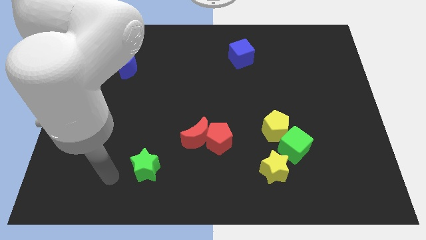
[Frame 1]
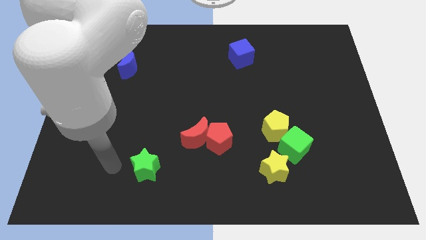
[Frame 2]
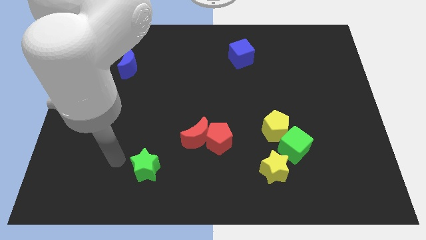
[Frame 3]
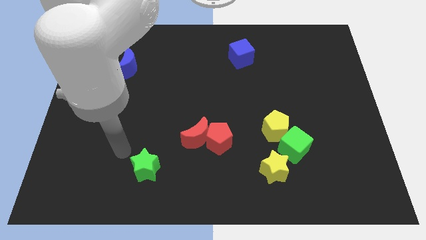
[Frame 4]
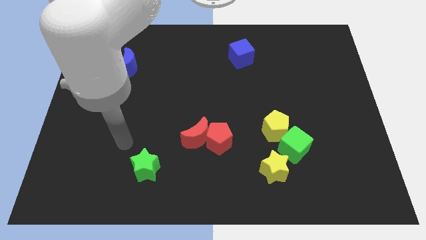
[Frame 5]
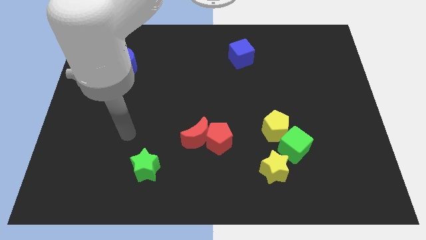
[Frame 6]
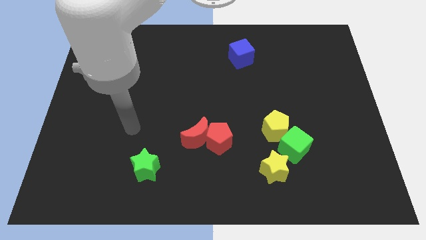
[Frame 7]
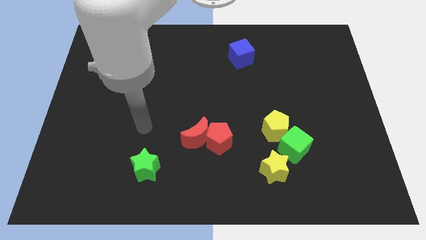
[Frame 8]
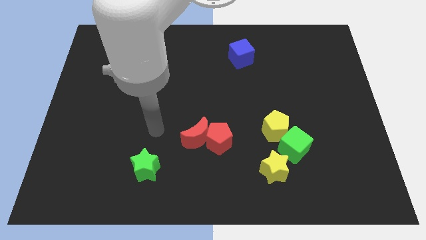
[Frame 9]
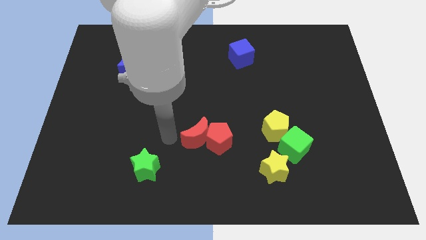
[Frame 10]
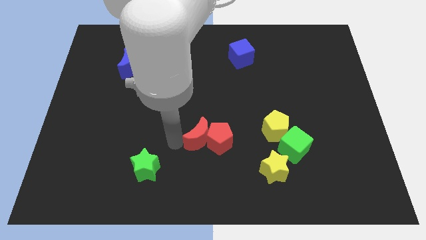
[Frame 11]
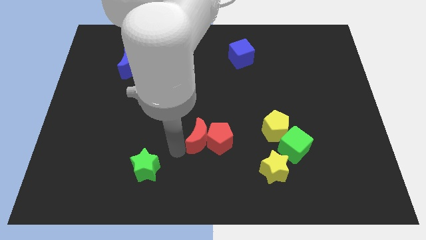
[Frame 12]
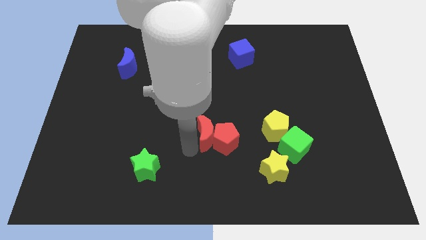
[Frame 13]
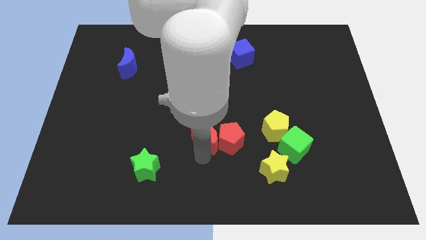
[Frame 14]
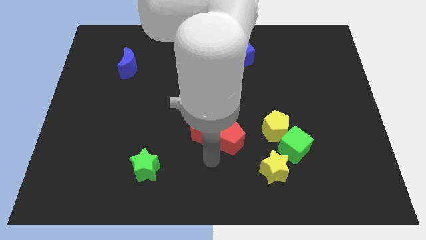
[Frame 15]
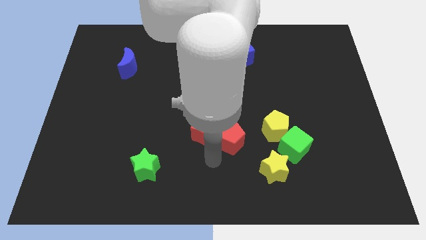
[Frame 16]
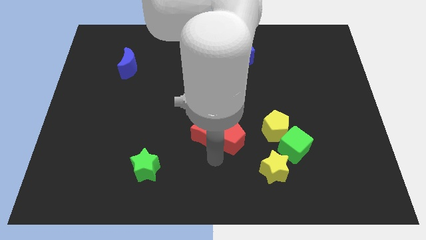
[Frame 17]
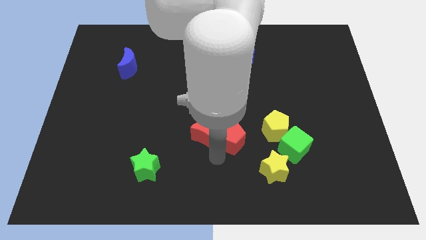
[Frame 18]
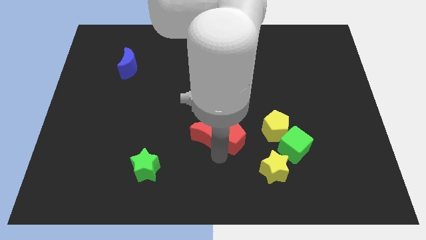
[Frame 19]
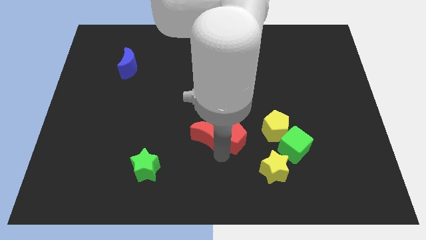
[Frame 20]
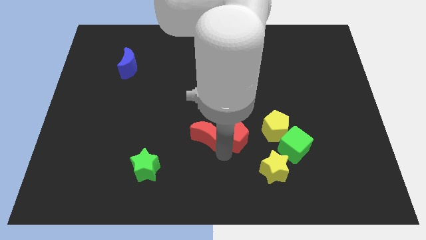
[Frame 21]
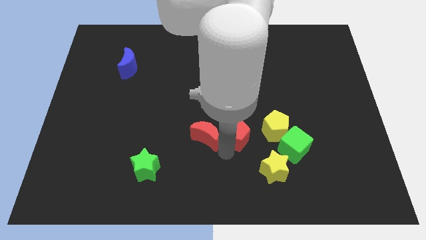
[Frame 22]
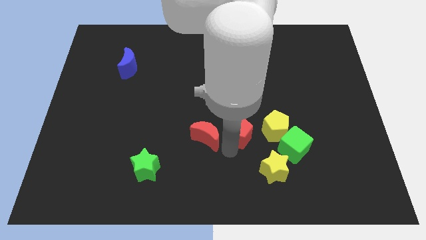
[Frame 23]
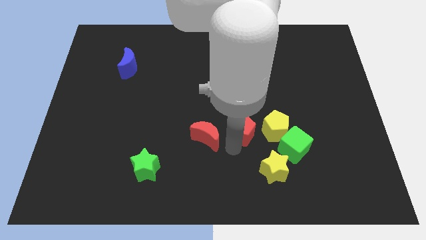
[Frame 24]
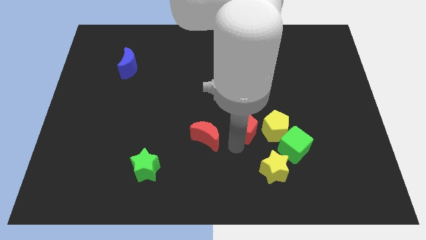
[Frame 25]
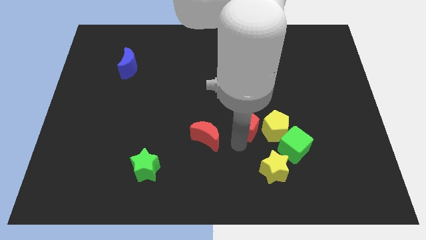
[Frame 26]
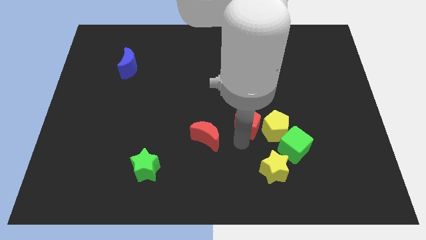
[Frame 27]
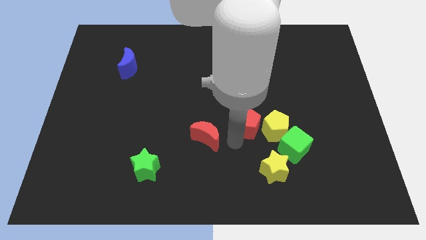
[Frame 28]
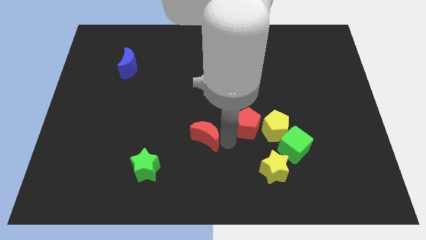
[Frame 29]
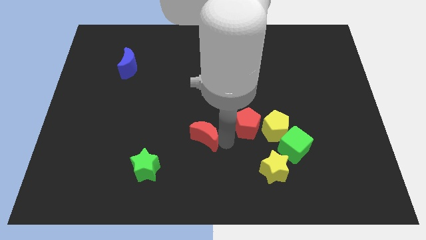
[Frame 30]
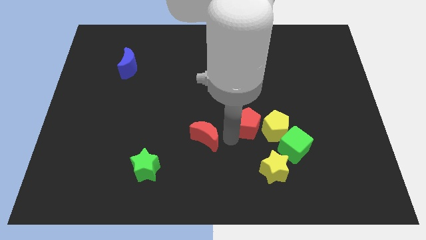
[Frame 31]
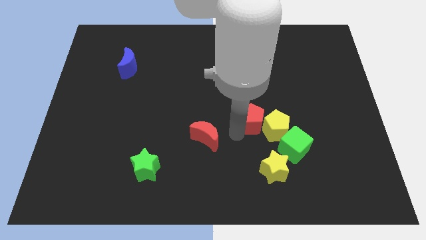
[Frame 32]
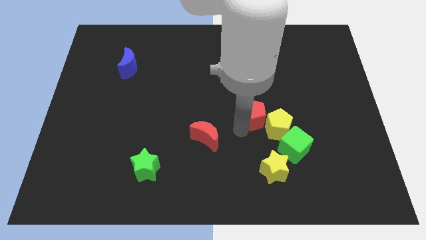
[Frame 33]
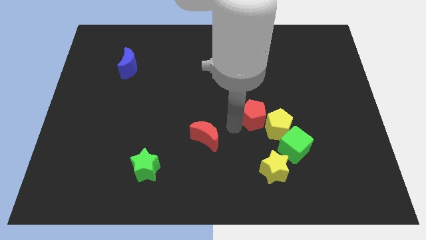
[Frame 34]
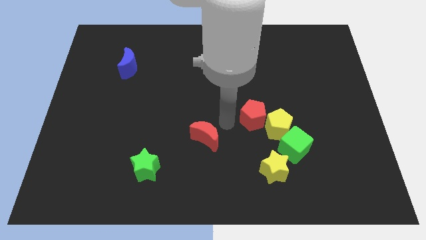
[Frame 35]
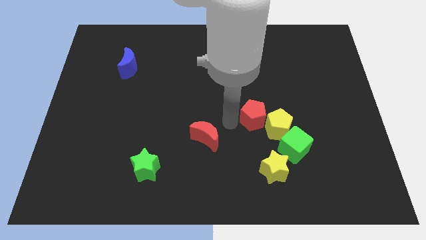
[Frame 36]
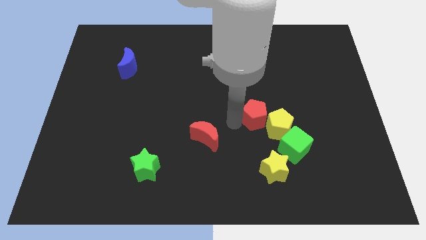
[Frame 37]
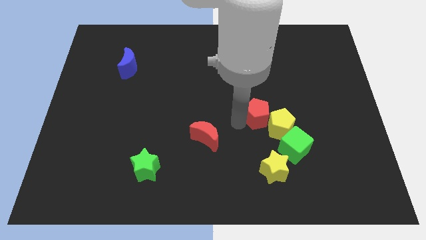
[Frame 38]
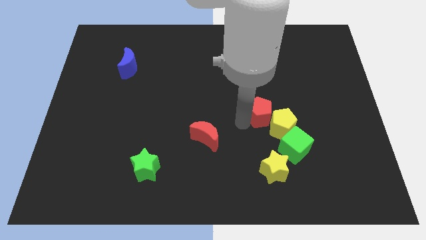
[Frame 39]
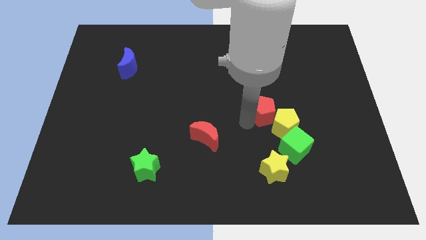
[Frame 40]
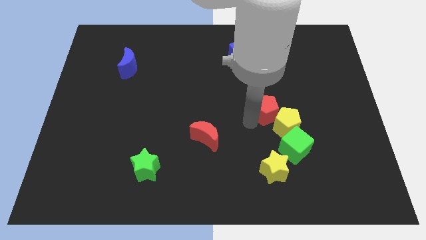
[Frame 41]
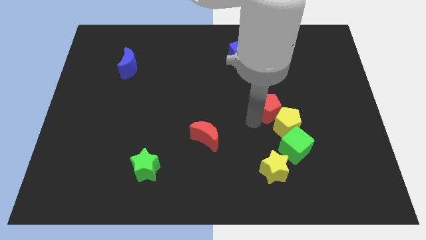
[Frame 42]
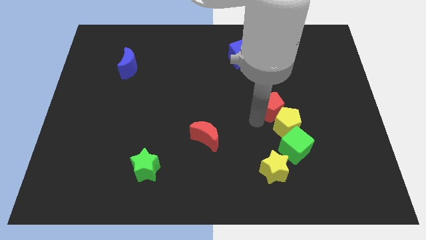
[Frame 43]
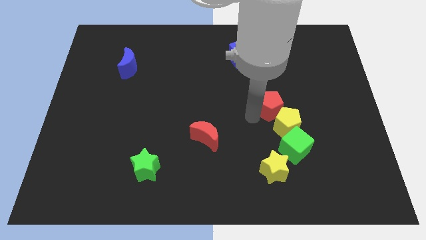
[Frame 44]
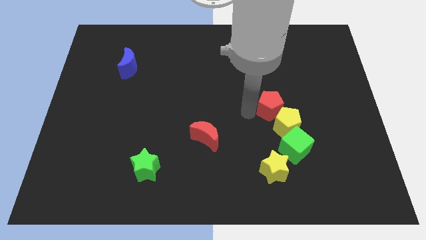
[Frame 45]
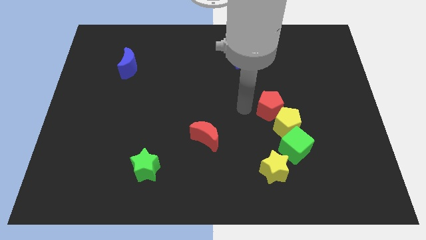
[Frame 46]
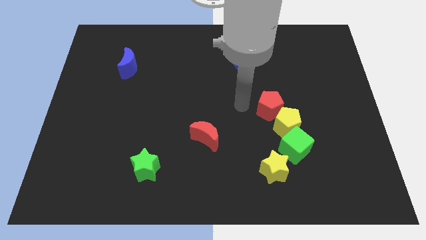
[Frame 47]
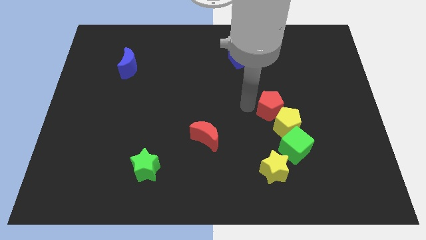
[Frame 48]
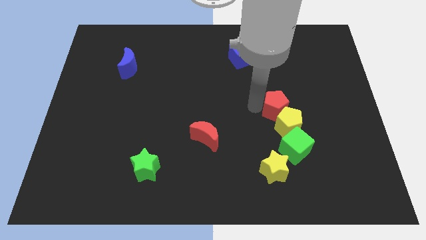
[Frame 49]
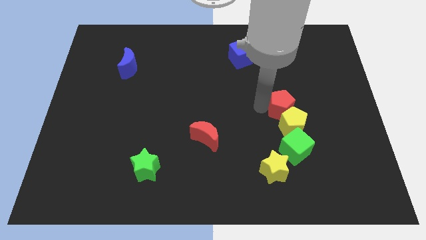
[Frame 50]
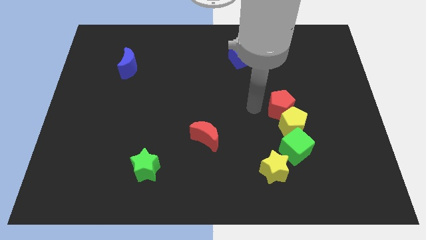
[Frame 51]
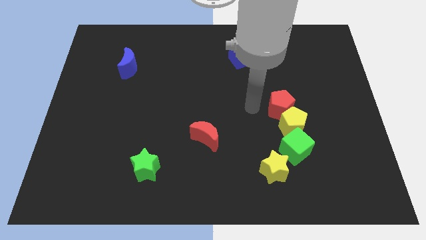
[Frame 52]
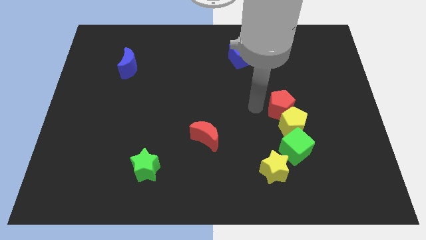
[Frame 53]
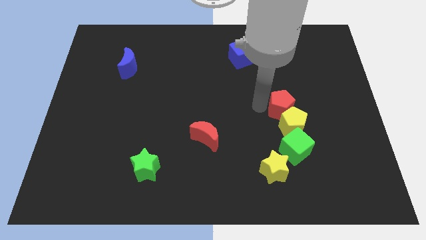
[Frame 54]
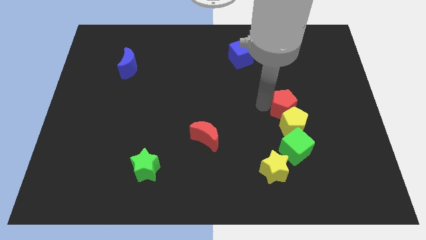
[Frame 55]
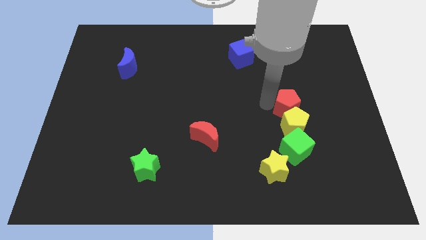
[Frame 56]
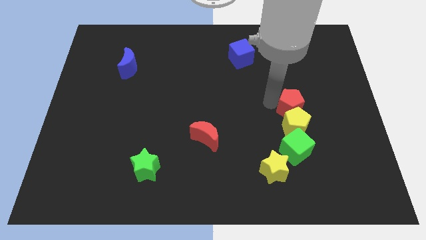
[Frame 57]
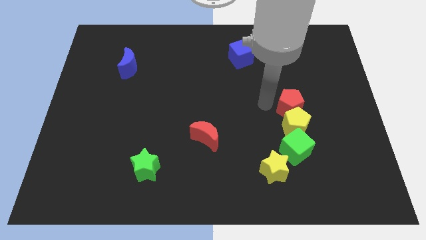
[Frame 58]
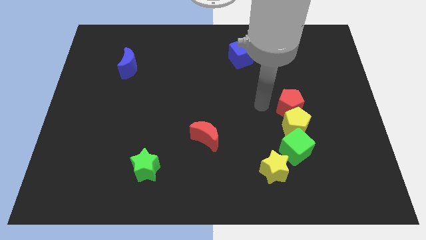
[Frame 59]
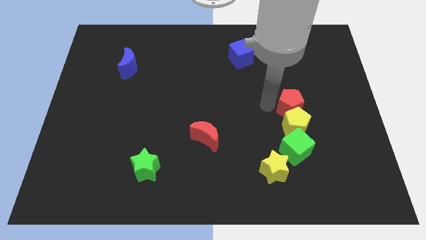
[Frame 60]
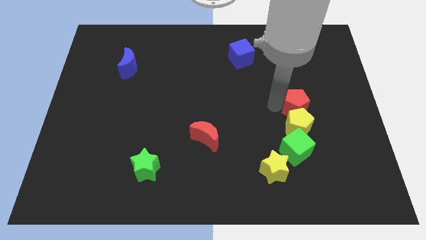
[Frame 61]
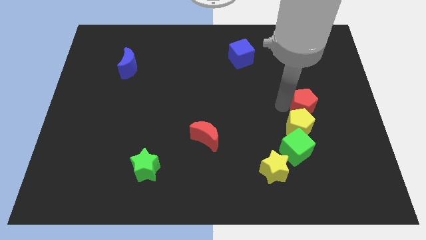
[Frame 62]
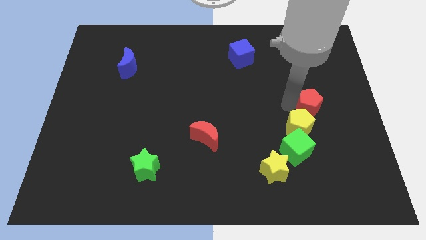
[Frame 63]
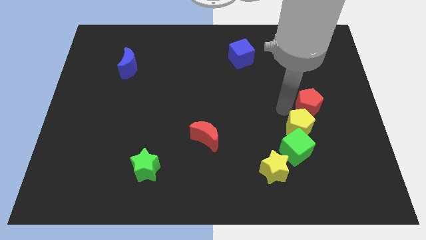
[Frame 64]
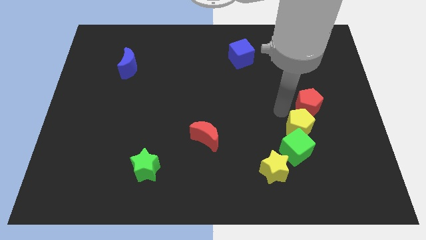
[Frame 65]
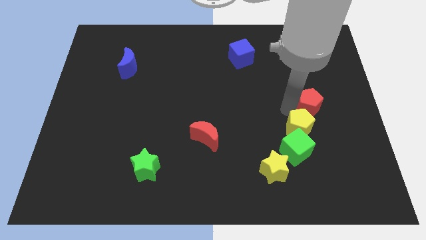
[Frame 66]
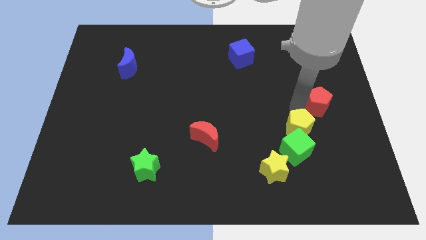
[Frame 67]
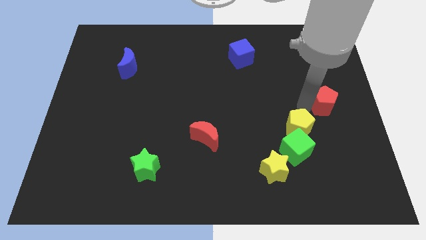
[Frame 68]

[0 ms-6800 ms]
slide the red pentagon to the center right
